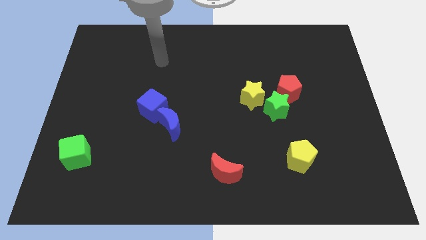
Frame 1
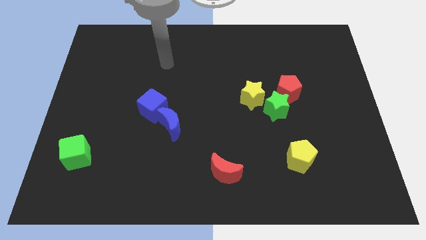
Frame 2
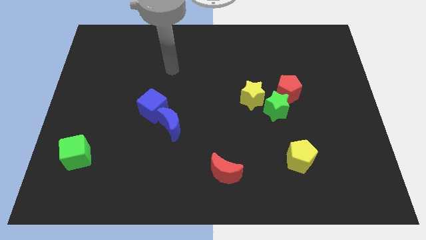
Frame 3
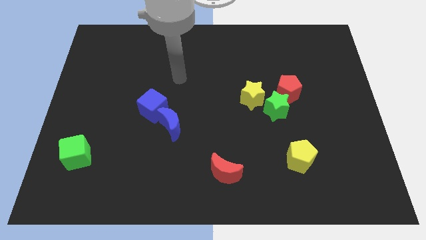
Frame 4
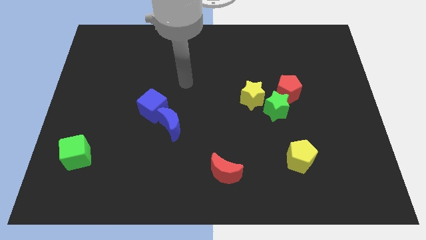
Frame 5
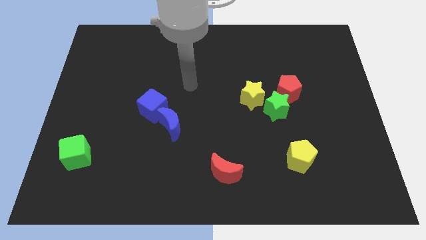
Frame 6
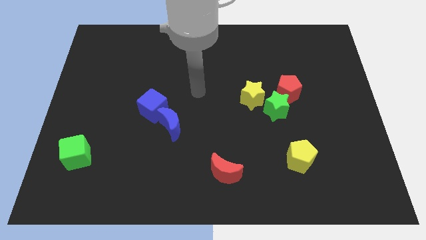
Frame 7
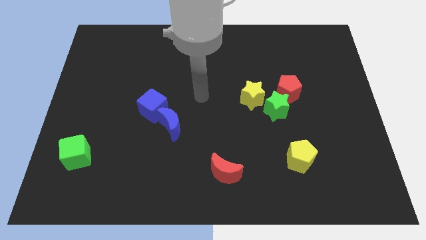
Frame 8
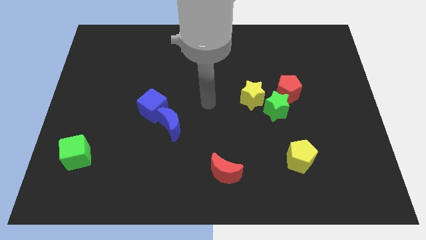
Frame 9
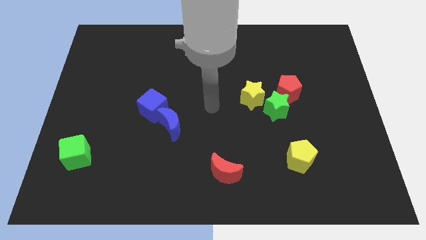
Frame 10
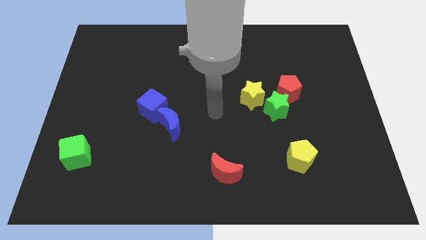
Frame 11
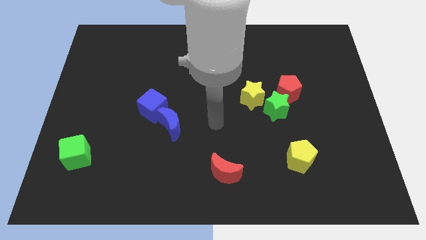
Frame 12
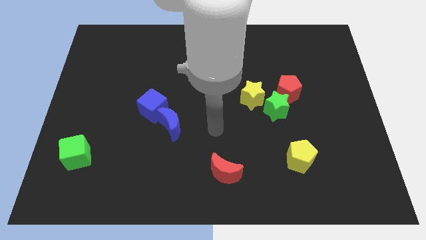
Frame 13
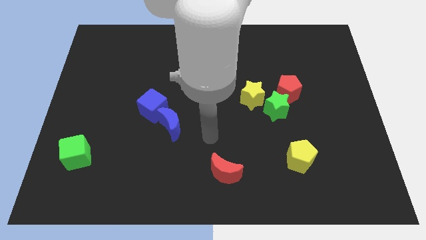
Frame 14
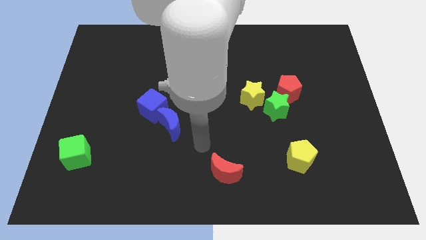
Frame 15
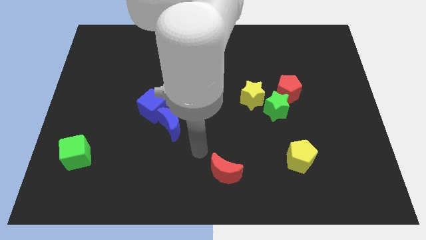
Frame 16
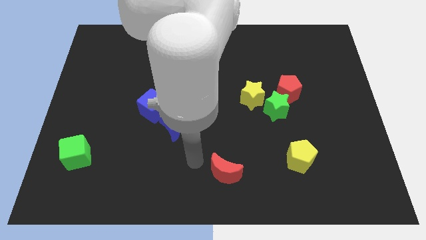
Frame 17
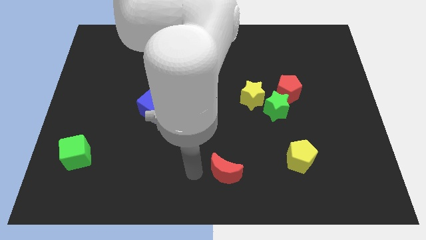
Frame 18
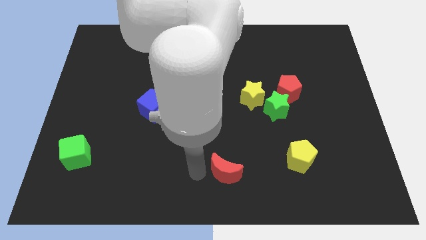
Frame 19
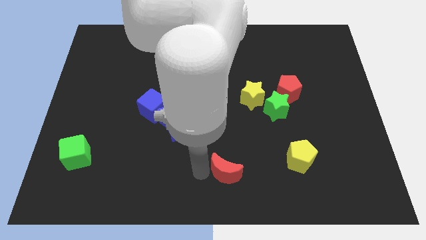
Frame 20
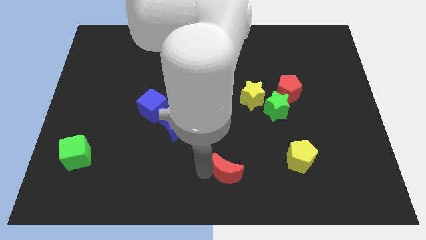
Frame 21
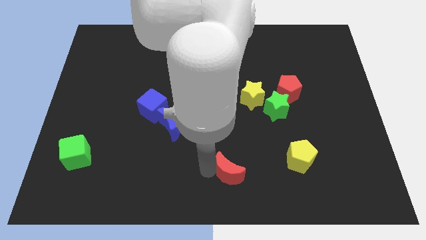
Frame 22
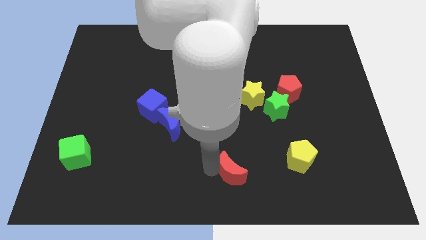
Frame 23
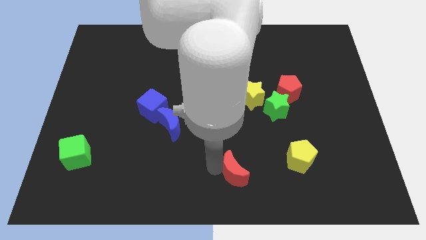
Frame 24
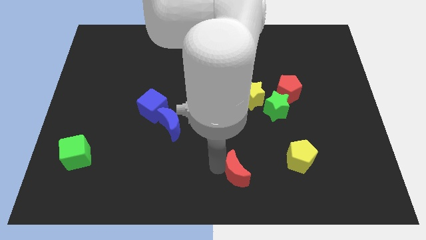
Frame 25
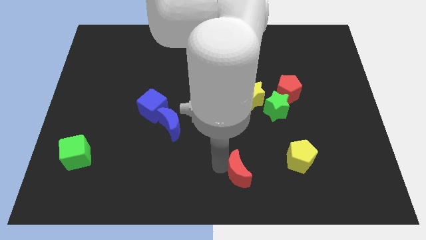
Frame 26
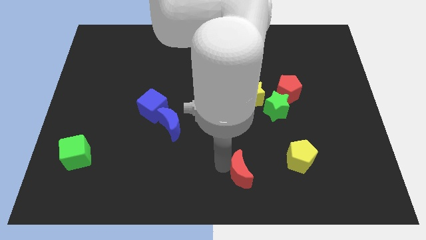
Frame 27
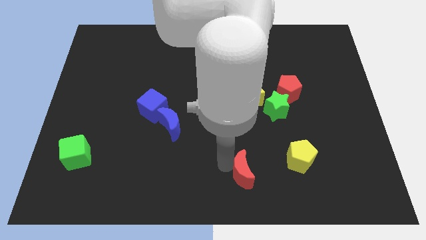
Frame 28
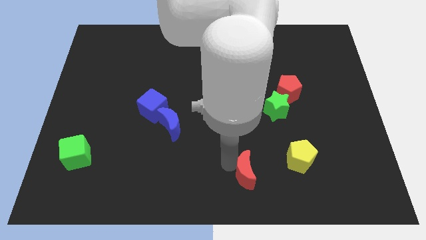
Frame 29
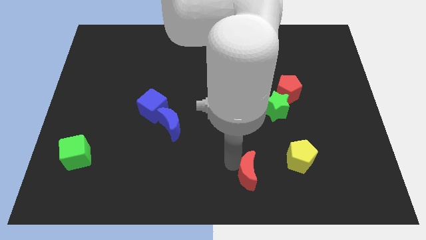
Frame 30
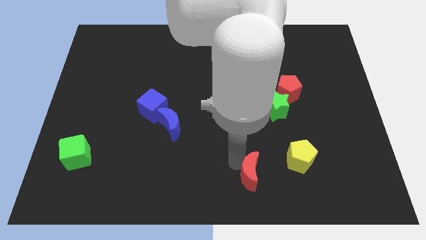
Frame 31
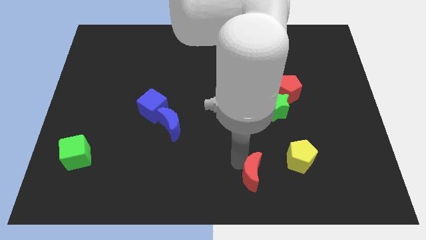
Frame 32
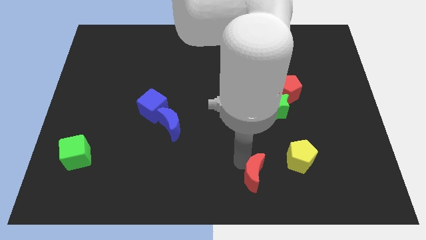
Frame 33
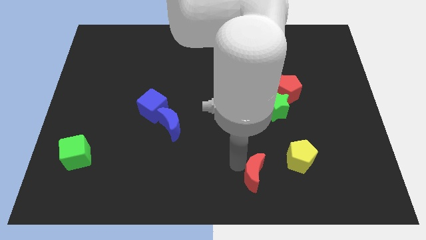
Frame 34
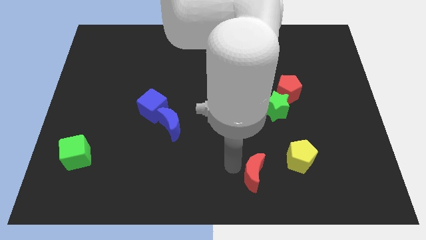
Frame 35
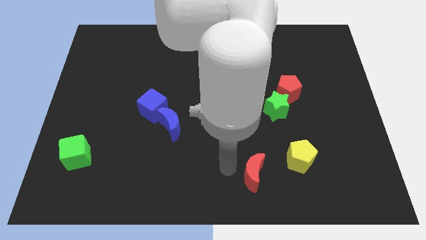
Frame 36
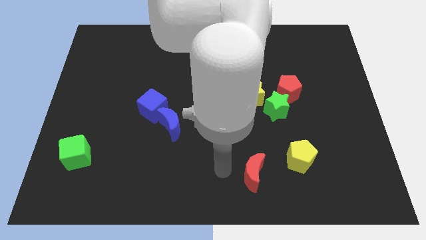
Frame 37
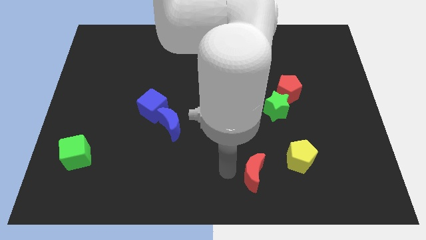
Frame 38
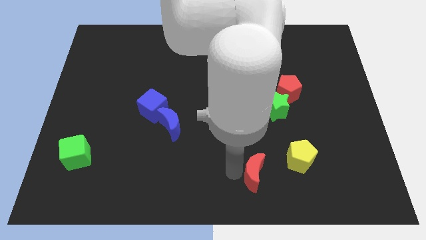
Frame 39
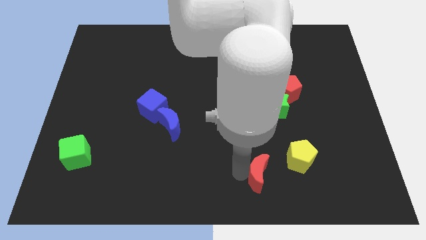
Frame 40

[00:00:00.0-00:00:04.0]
move the red moon right a bit

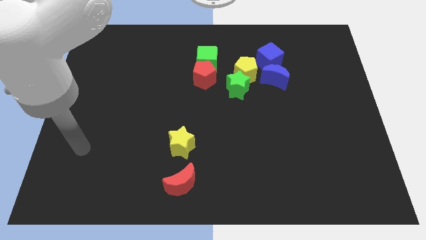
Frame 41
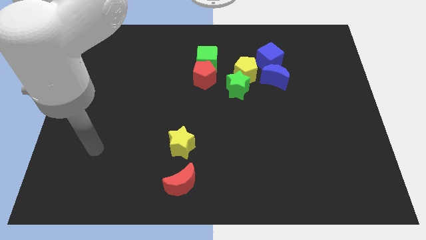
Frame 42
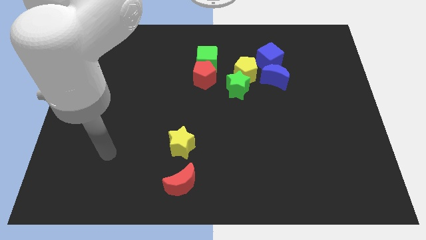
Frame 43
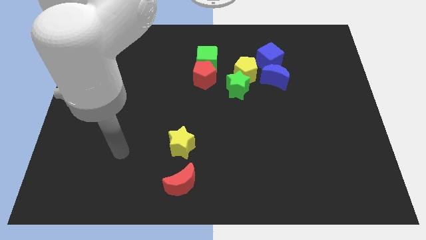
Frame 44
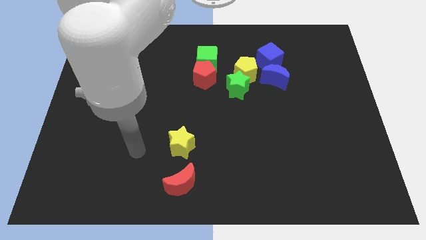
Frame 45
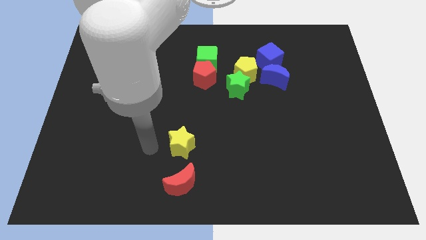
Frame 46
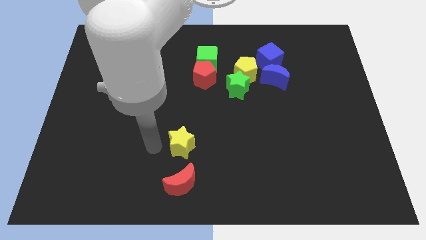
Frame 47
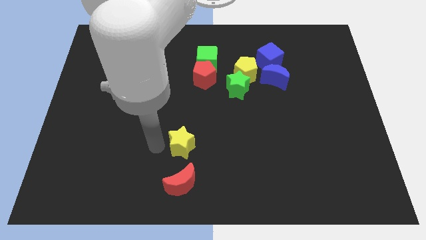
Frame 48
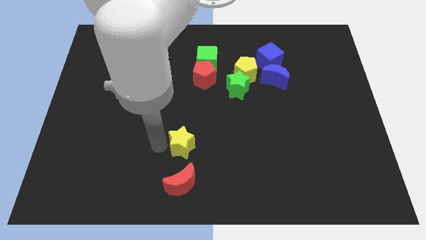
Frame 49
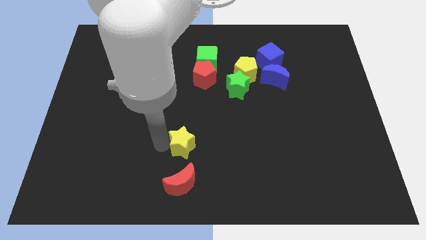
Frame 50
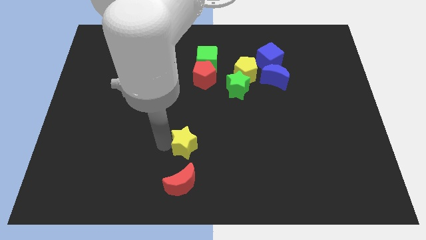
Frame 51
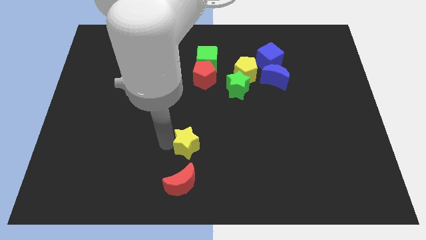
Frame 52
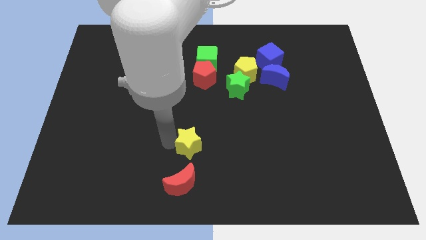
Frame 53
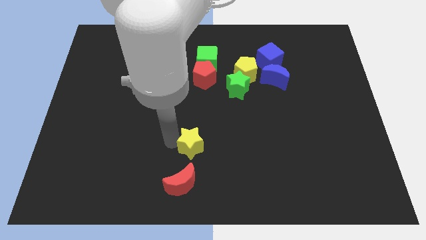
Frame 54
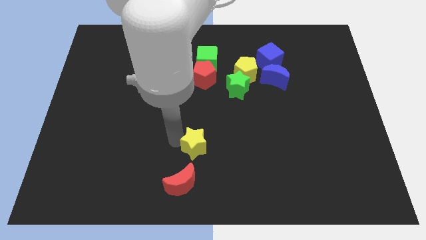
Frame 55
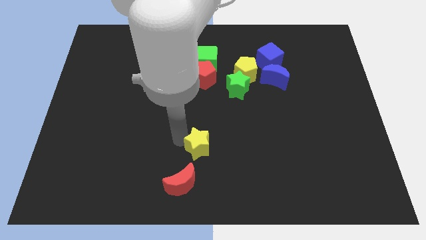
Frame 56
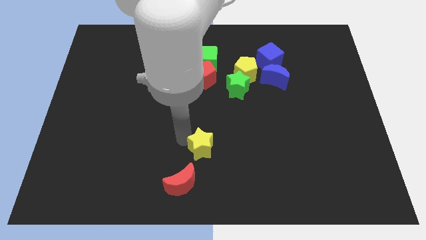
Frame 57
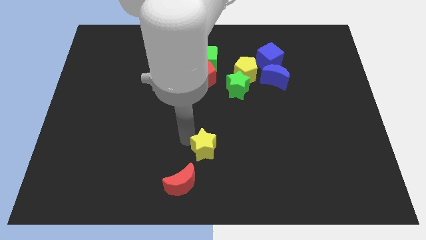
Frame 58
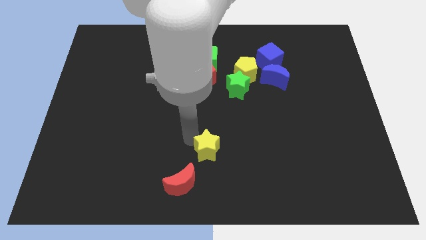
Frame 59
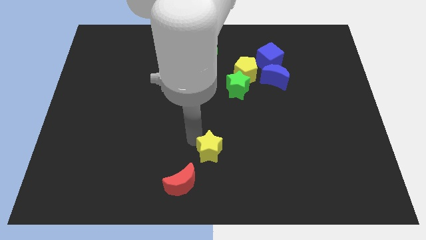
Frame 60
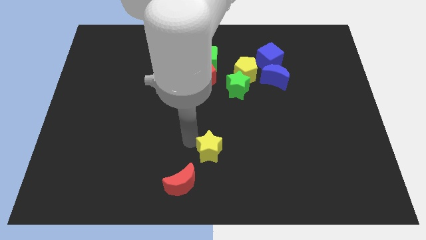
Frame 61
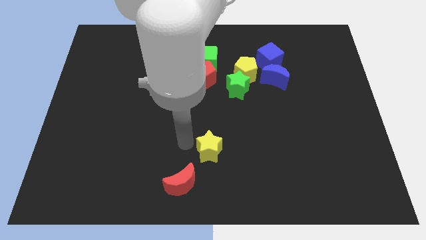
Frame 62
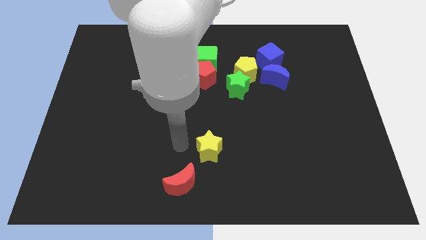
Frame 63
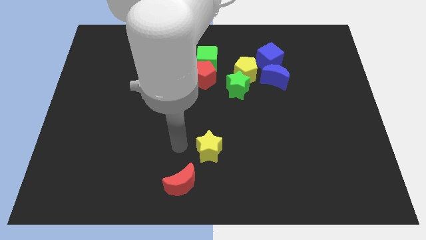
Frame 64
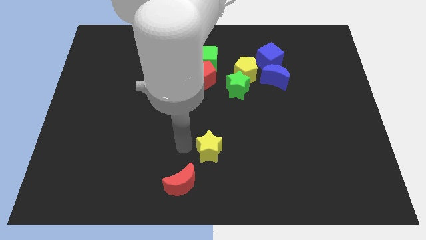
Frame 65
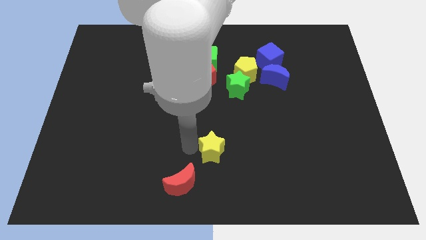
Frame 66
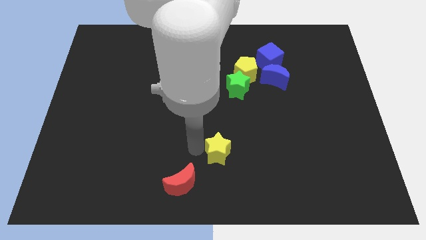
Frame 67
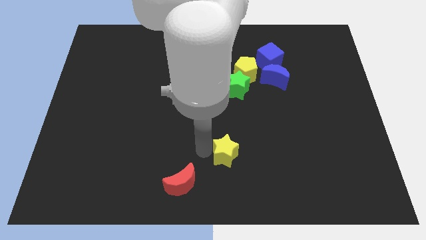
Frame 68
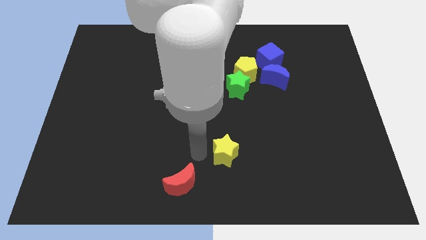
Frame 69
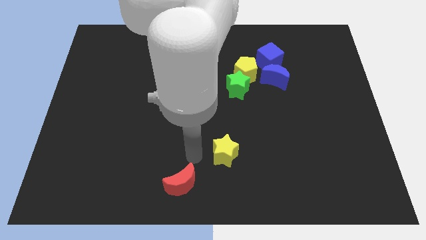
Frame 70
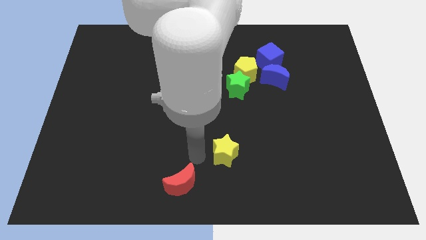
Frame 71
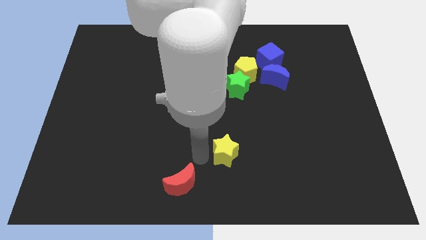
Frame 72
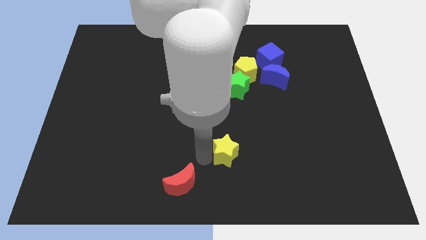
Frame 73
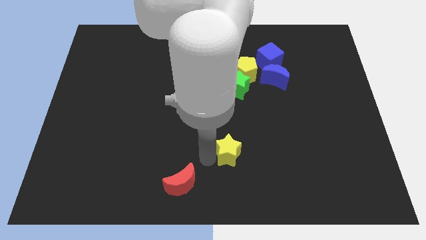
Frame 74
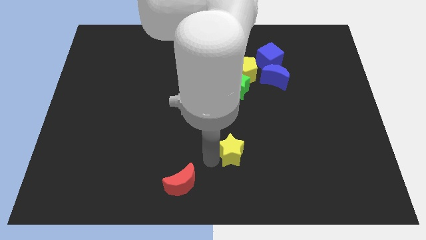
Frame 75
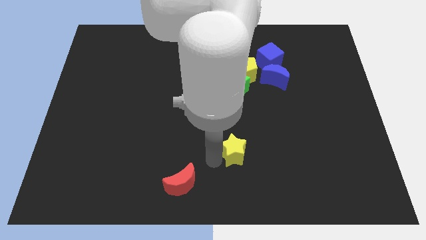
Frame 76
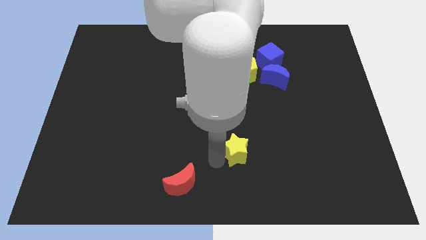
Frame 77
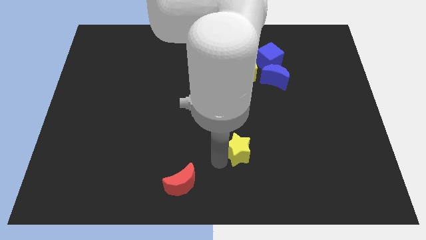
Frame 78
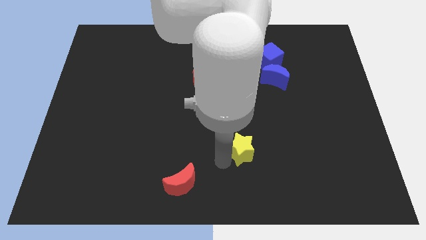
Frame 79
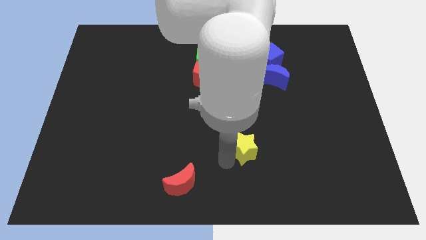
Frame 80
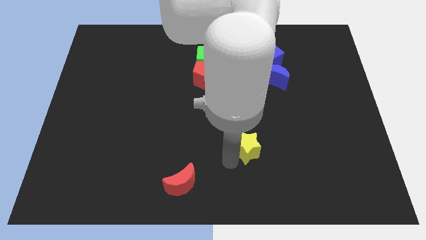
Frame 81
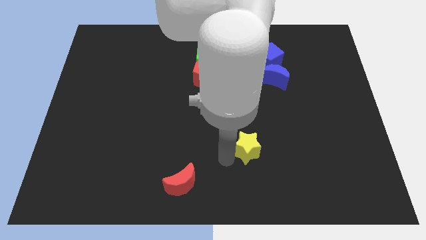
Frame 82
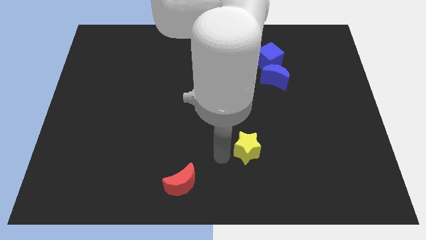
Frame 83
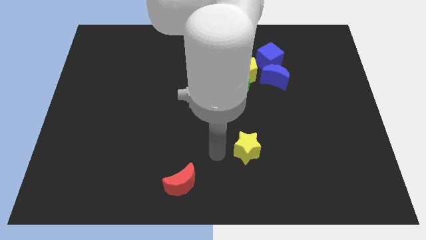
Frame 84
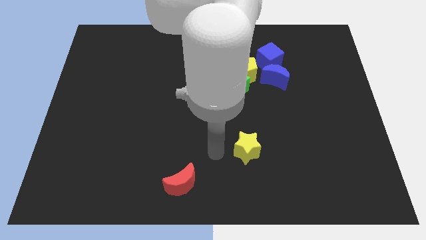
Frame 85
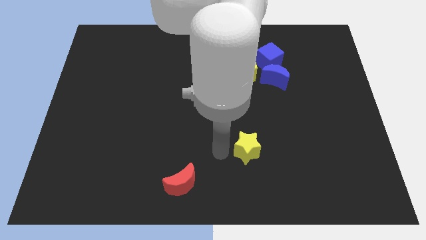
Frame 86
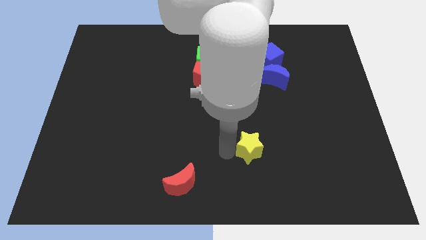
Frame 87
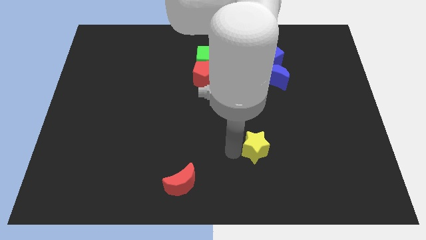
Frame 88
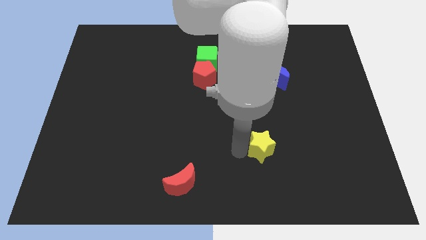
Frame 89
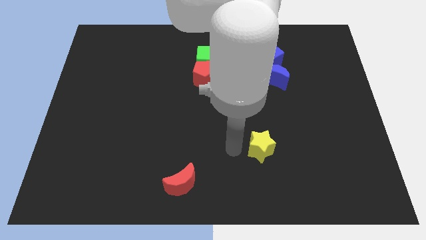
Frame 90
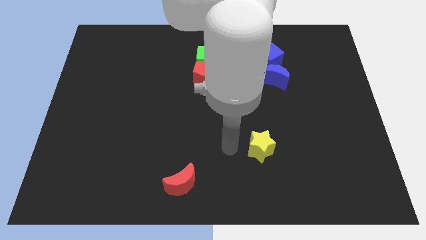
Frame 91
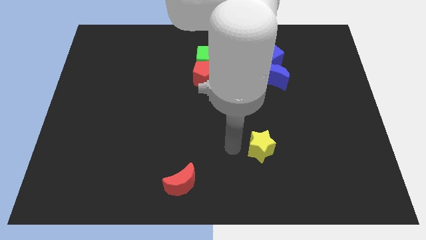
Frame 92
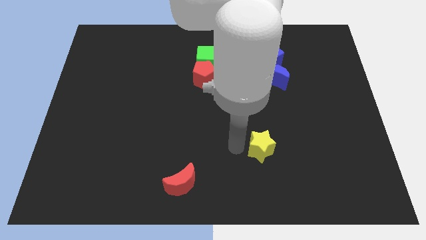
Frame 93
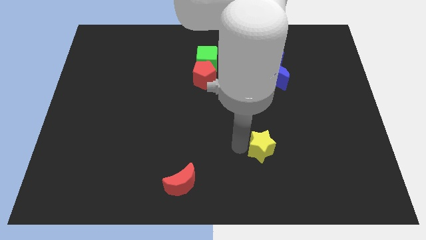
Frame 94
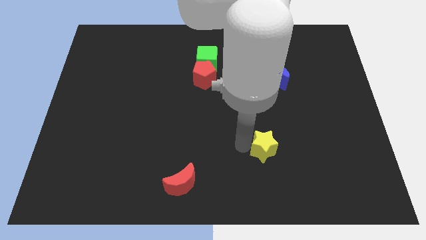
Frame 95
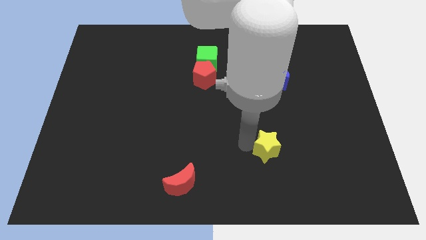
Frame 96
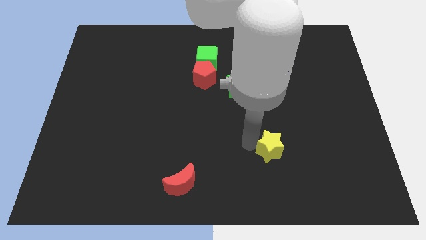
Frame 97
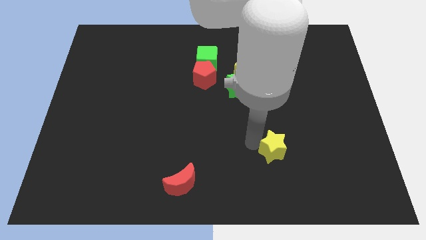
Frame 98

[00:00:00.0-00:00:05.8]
push the yellow star to the right
